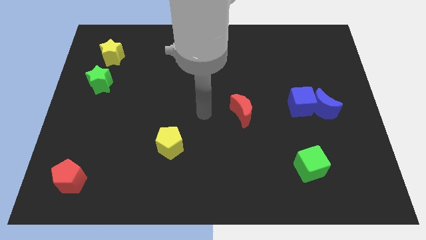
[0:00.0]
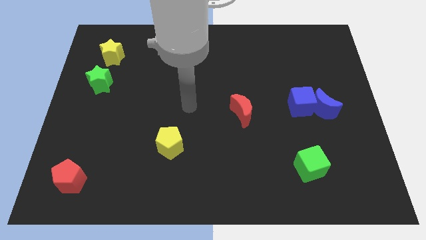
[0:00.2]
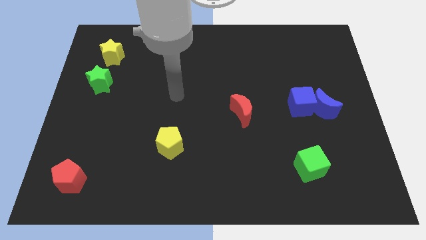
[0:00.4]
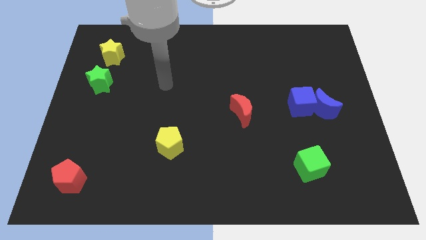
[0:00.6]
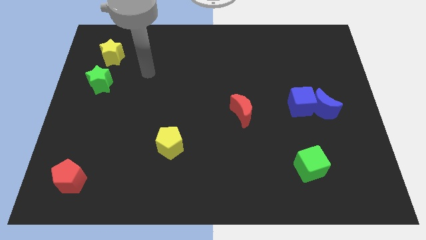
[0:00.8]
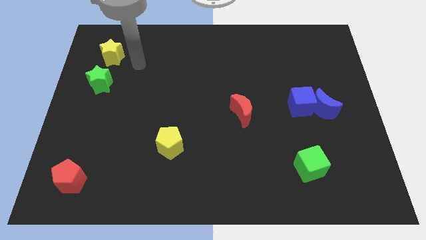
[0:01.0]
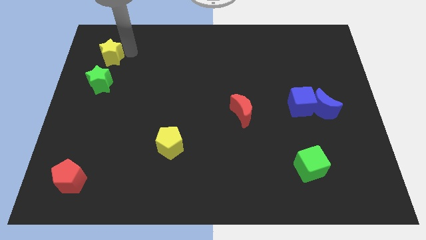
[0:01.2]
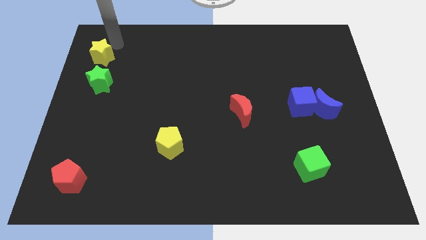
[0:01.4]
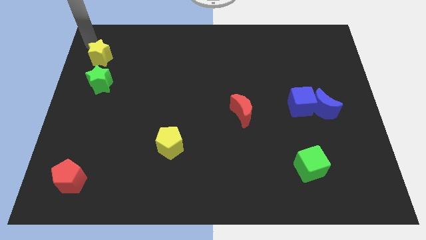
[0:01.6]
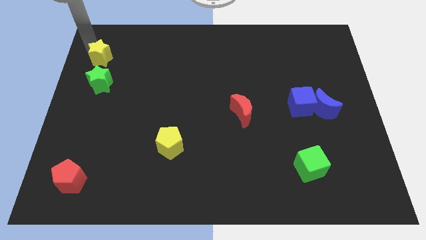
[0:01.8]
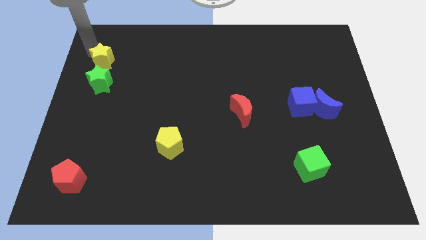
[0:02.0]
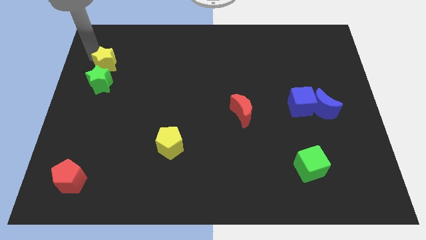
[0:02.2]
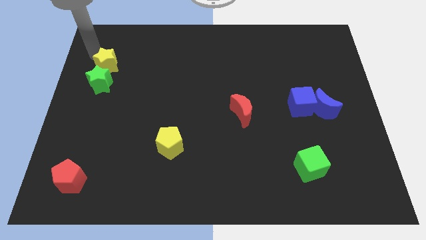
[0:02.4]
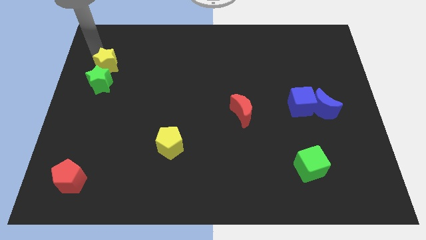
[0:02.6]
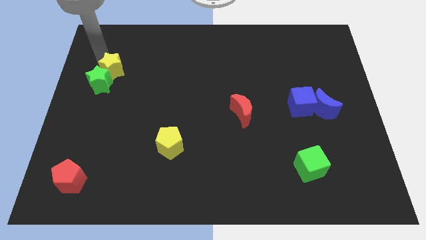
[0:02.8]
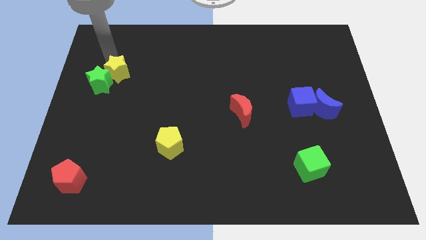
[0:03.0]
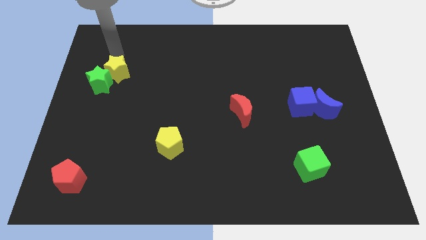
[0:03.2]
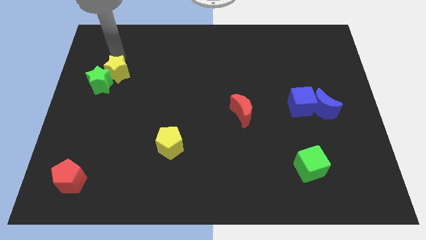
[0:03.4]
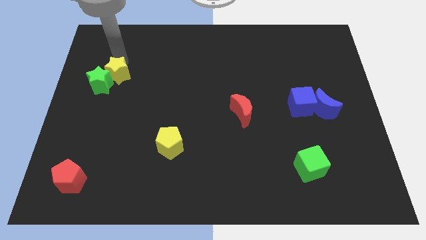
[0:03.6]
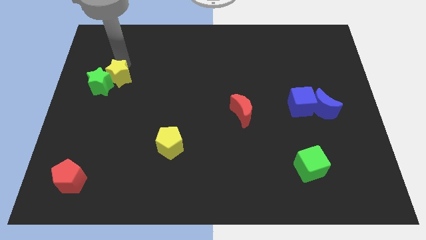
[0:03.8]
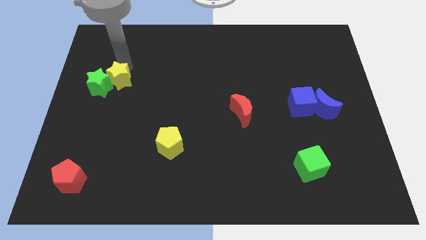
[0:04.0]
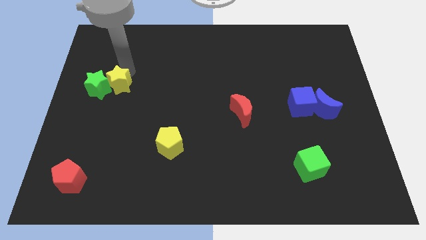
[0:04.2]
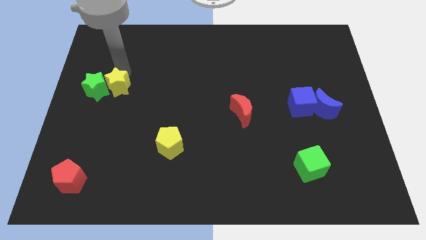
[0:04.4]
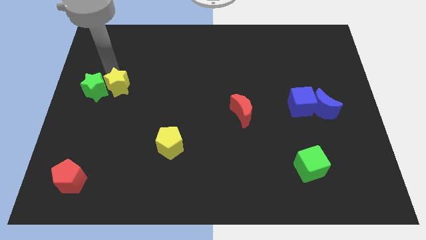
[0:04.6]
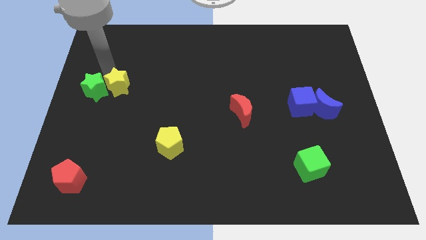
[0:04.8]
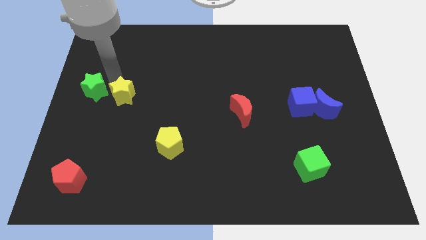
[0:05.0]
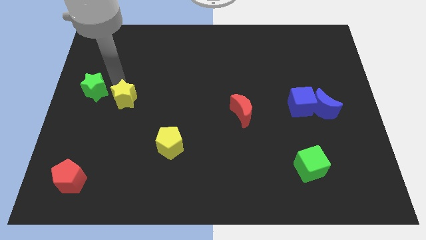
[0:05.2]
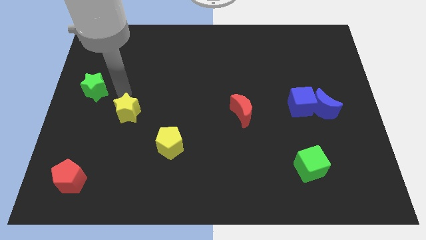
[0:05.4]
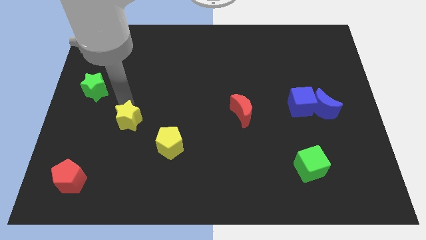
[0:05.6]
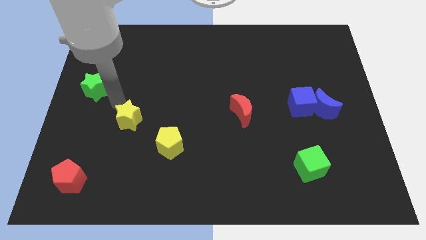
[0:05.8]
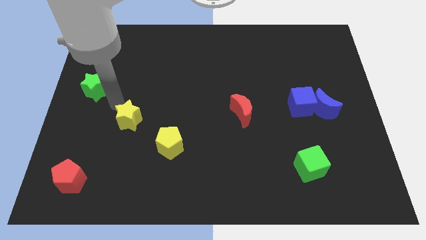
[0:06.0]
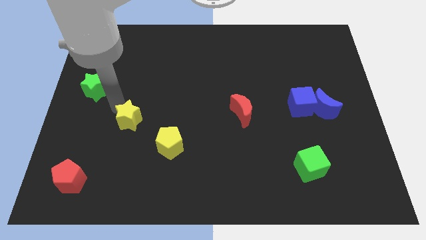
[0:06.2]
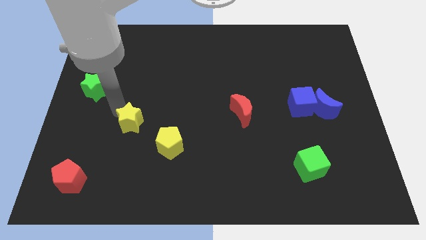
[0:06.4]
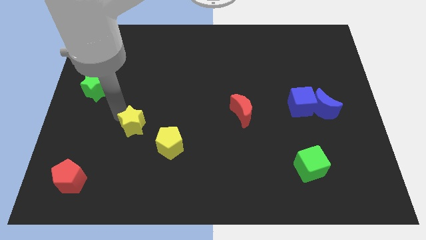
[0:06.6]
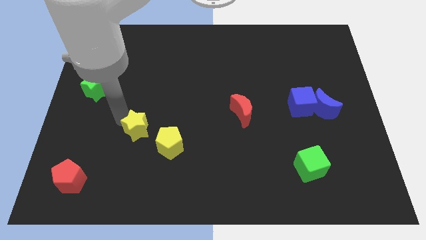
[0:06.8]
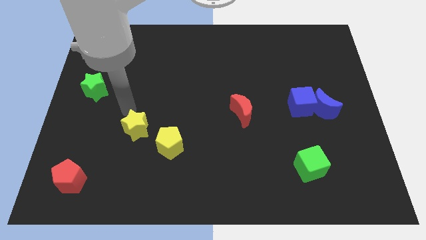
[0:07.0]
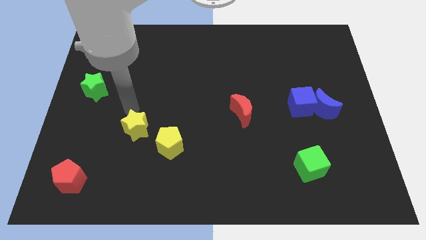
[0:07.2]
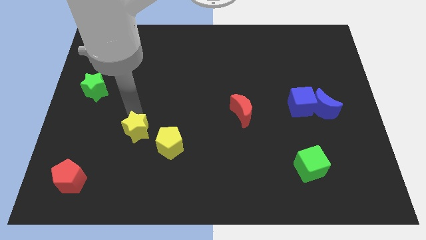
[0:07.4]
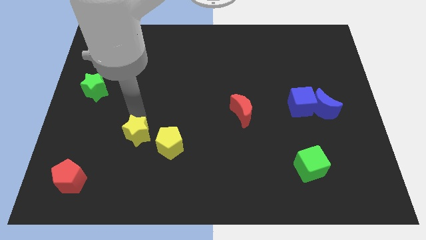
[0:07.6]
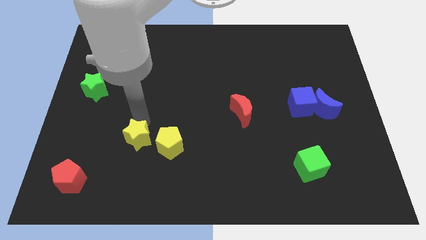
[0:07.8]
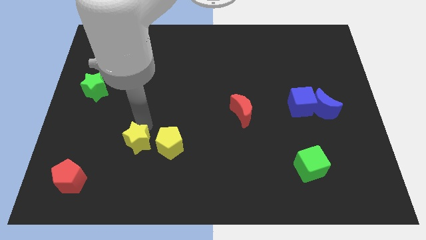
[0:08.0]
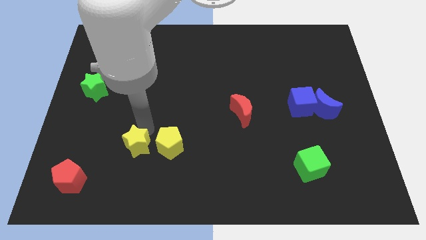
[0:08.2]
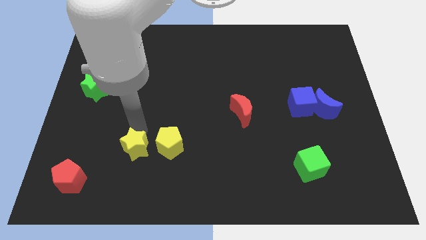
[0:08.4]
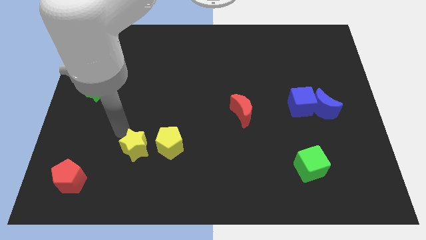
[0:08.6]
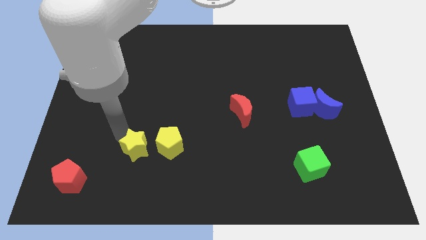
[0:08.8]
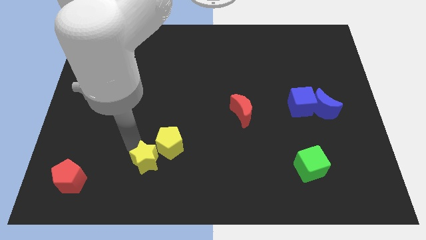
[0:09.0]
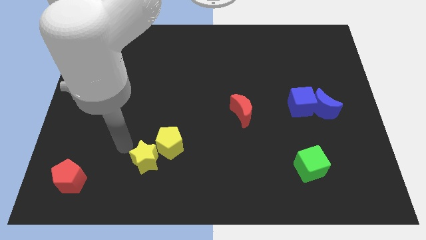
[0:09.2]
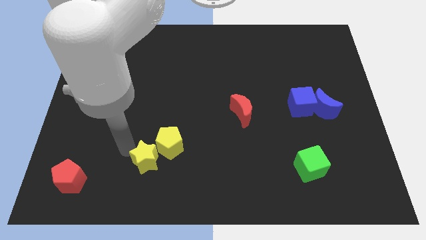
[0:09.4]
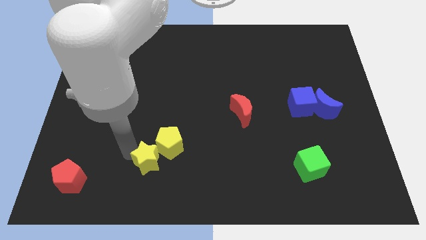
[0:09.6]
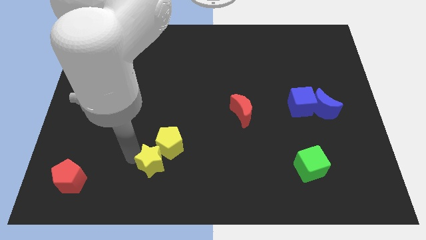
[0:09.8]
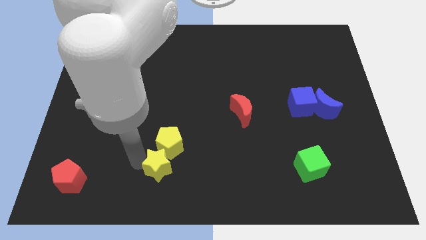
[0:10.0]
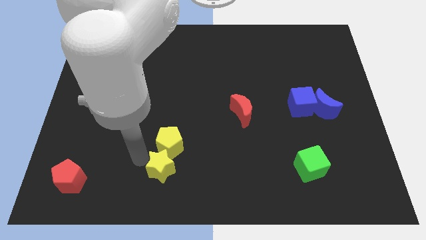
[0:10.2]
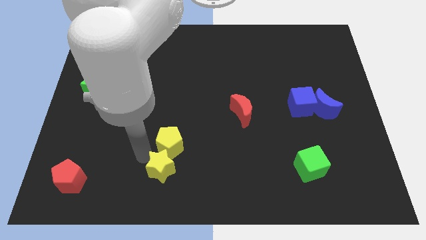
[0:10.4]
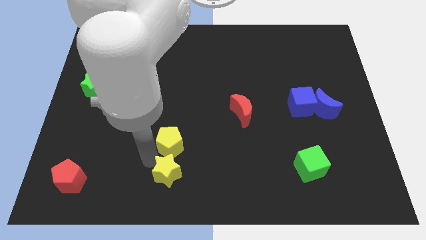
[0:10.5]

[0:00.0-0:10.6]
move the yellow star to the bottom side
